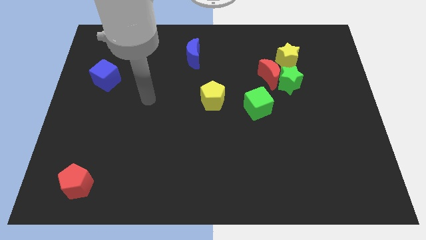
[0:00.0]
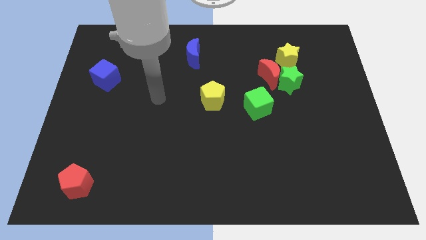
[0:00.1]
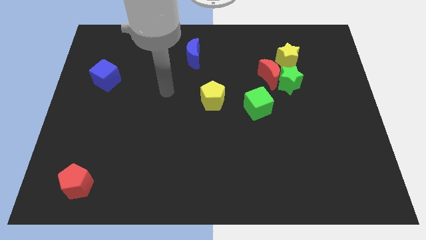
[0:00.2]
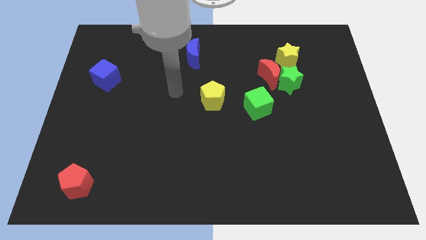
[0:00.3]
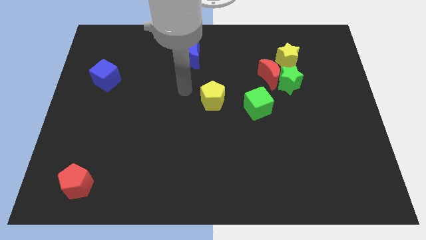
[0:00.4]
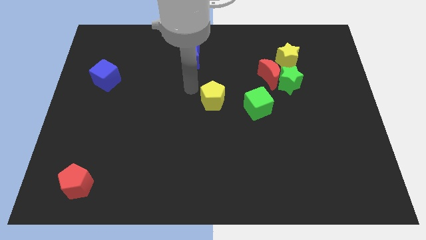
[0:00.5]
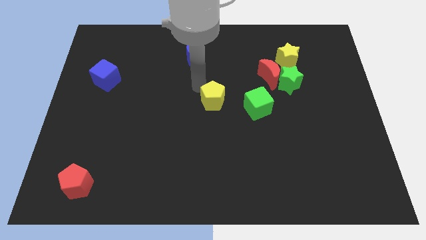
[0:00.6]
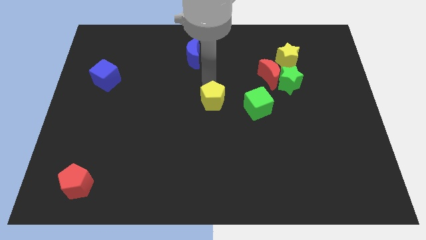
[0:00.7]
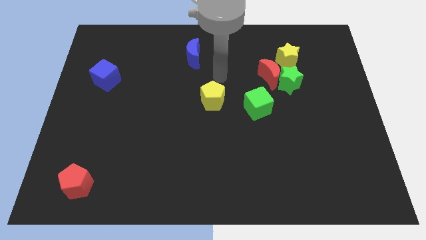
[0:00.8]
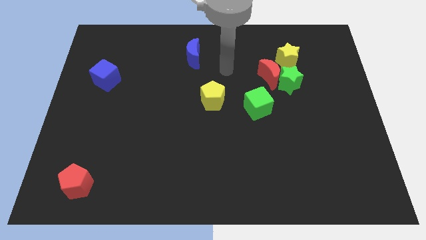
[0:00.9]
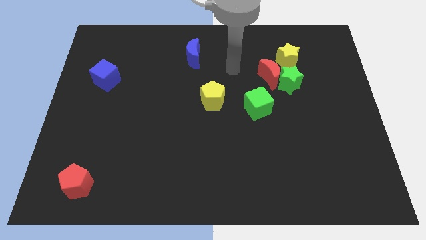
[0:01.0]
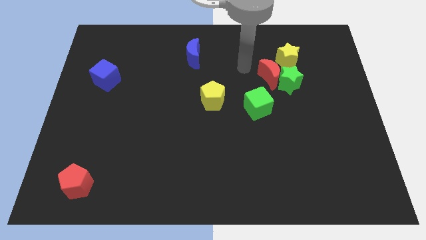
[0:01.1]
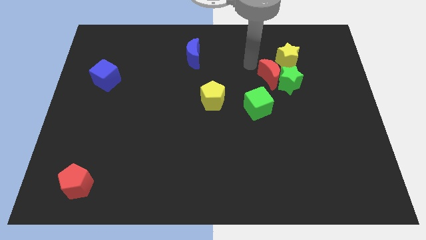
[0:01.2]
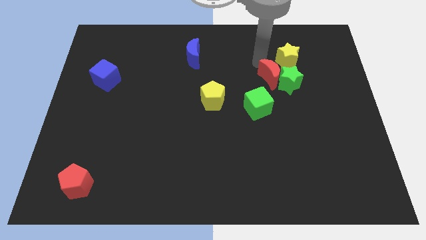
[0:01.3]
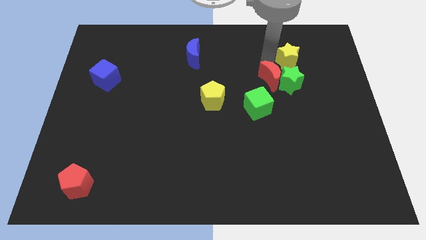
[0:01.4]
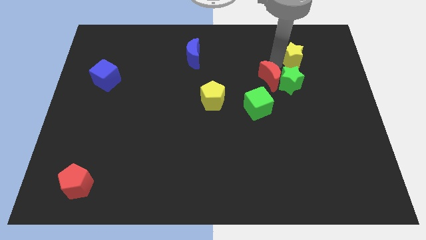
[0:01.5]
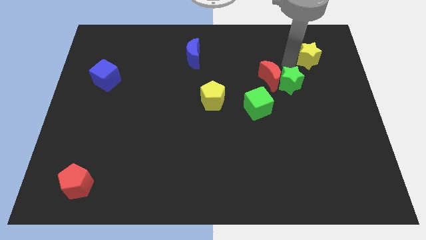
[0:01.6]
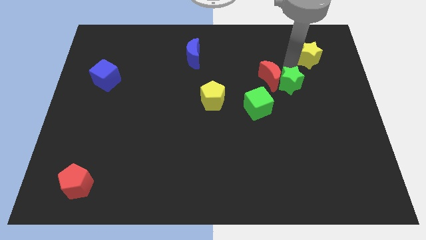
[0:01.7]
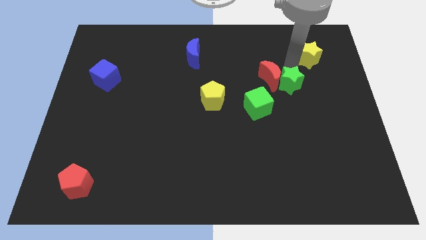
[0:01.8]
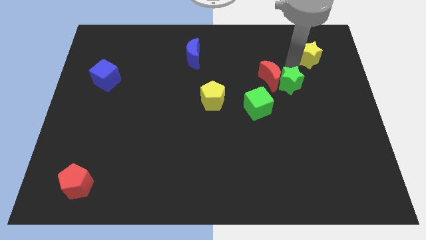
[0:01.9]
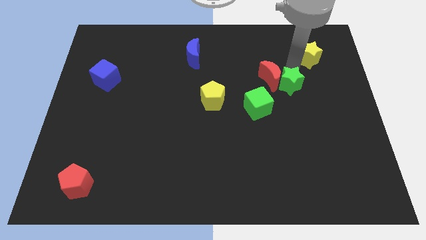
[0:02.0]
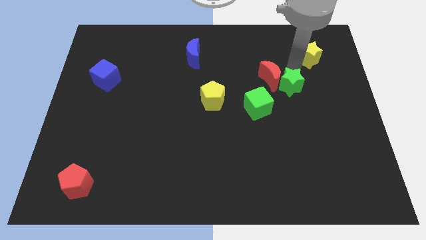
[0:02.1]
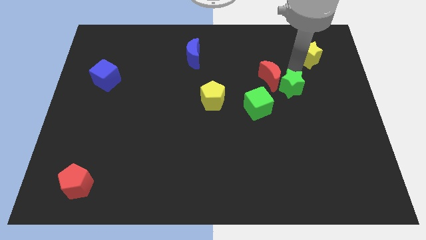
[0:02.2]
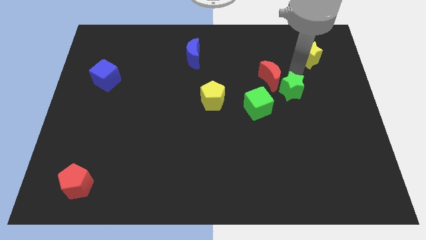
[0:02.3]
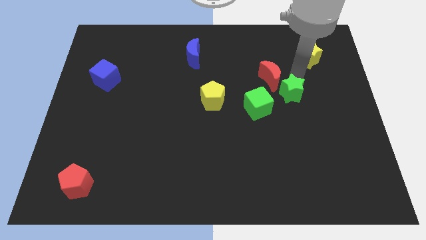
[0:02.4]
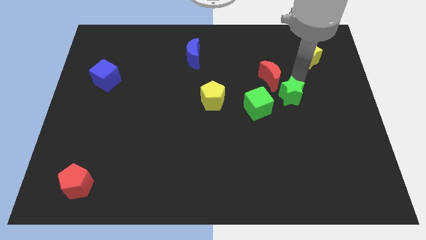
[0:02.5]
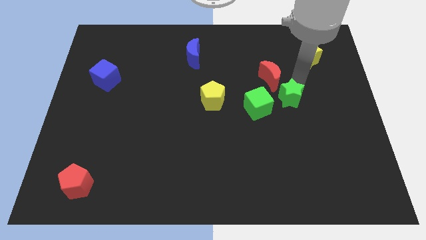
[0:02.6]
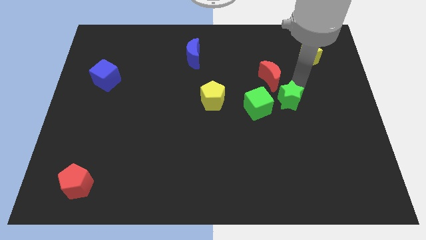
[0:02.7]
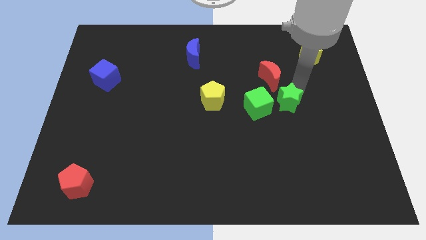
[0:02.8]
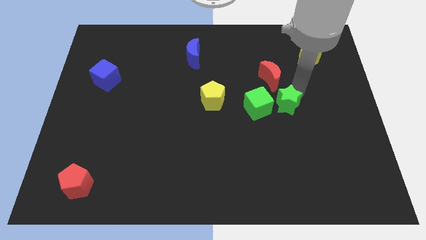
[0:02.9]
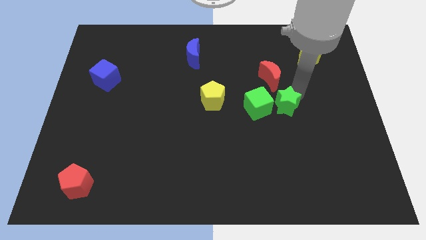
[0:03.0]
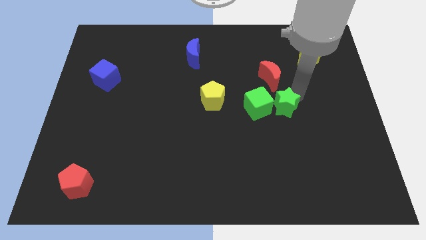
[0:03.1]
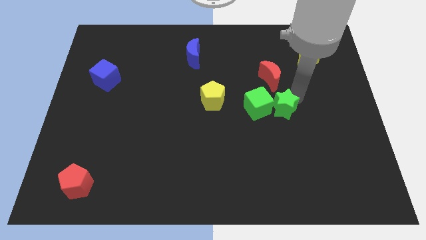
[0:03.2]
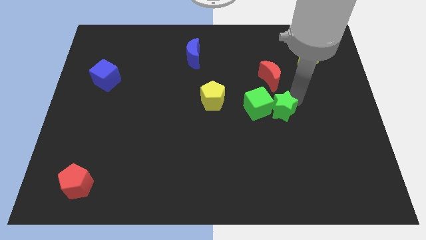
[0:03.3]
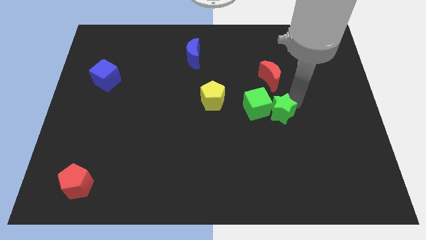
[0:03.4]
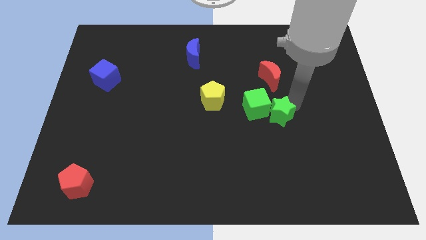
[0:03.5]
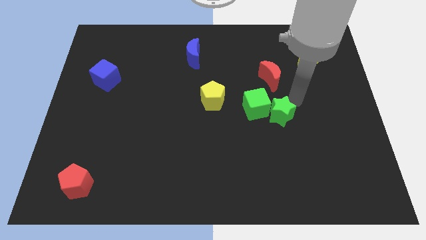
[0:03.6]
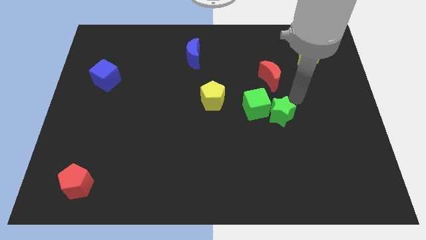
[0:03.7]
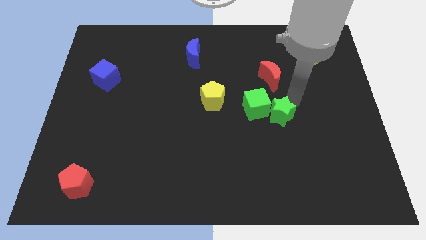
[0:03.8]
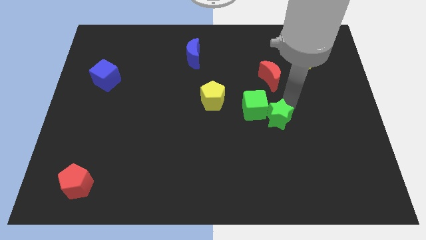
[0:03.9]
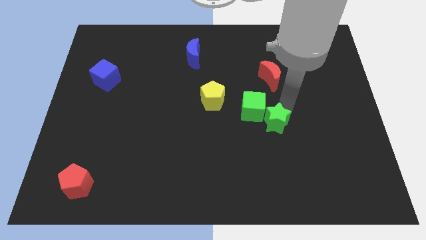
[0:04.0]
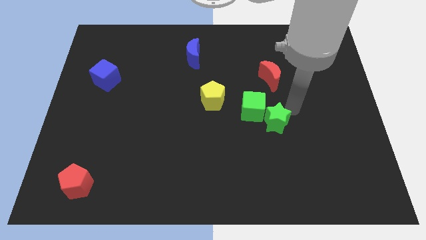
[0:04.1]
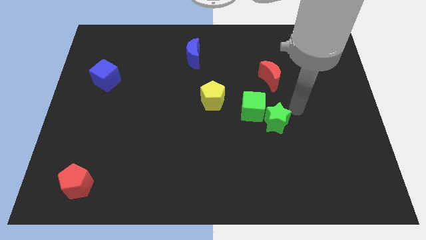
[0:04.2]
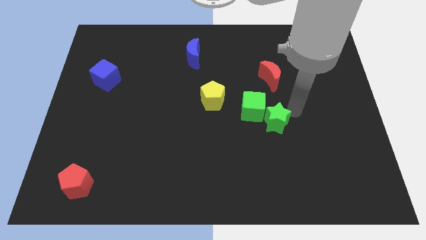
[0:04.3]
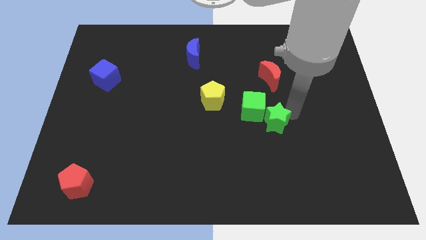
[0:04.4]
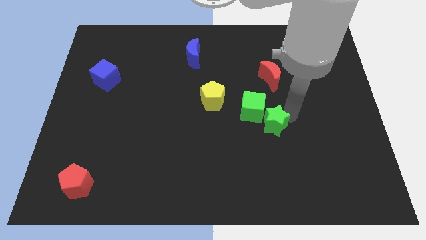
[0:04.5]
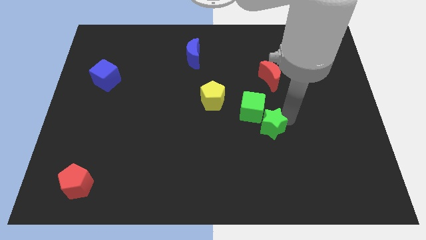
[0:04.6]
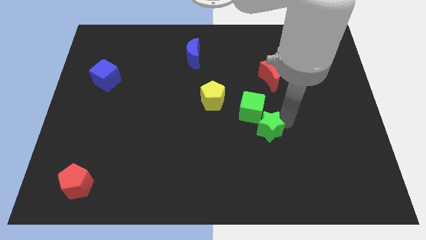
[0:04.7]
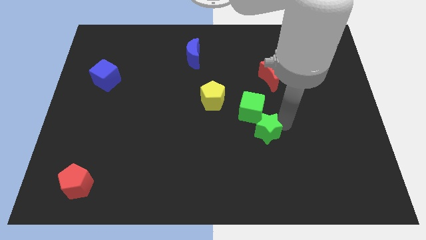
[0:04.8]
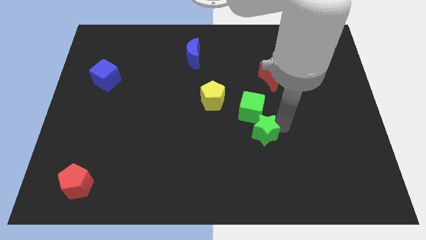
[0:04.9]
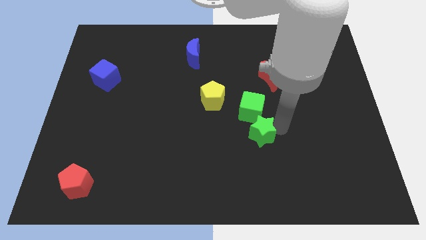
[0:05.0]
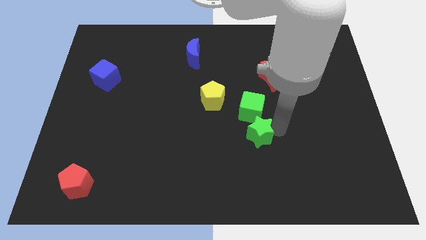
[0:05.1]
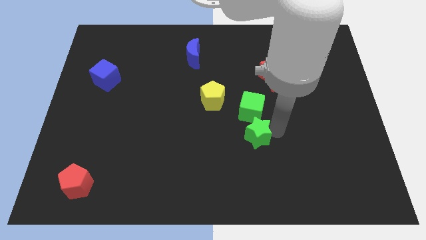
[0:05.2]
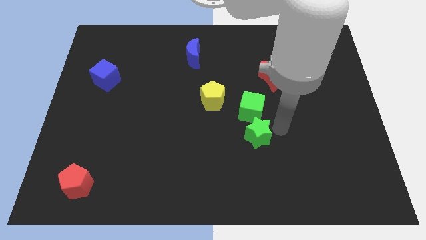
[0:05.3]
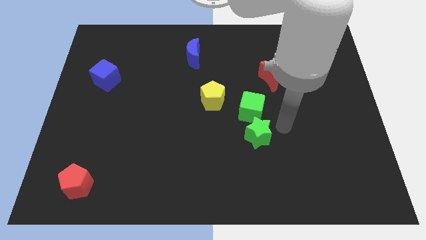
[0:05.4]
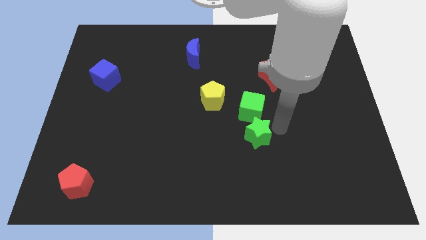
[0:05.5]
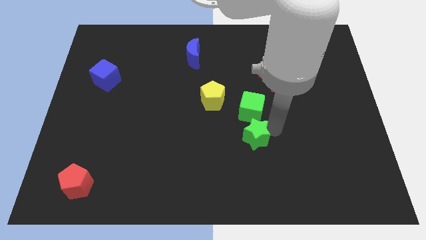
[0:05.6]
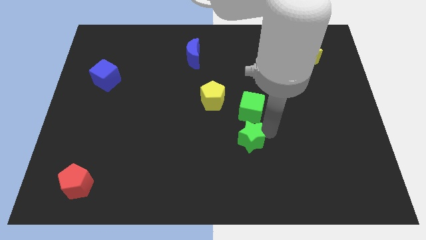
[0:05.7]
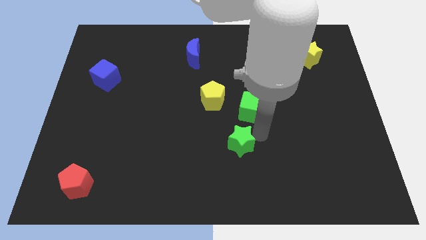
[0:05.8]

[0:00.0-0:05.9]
push the green star down and left

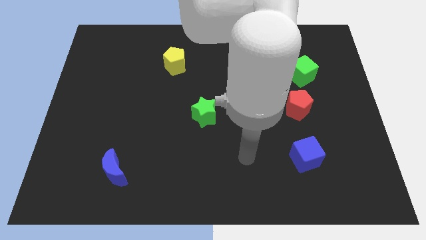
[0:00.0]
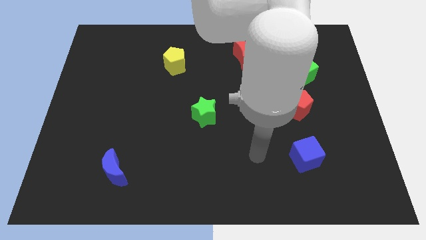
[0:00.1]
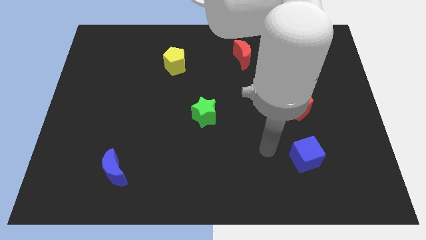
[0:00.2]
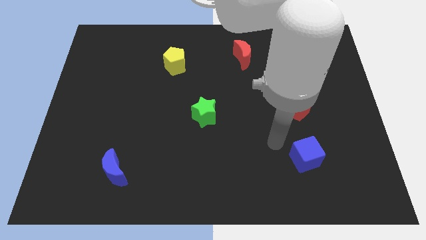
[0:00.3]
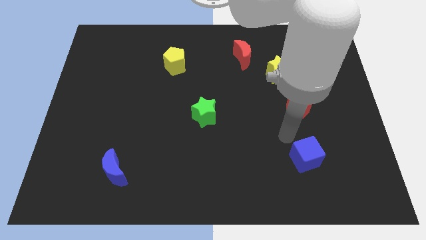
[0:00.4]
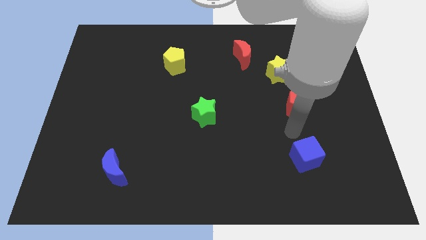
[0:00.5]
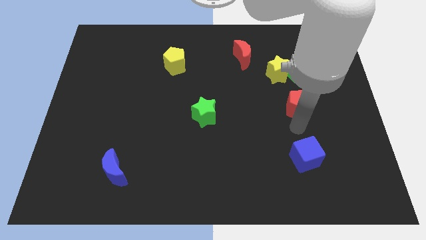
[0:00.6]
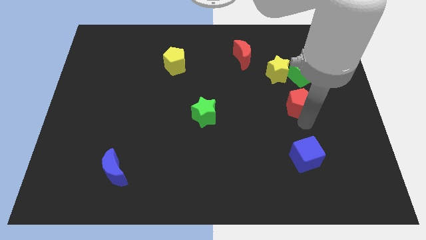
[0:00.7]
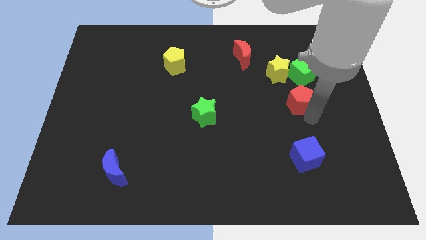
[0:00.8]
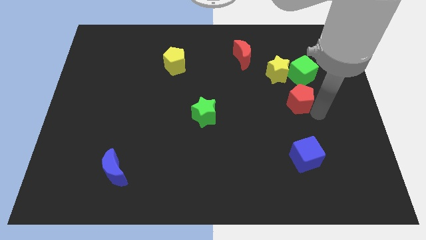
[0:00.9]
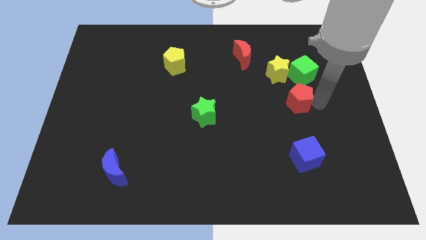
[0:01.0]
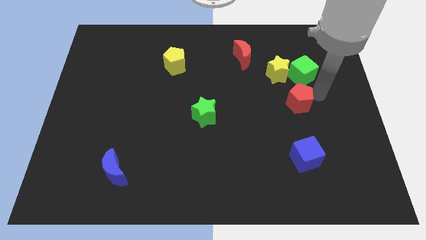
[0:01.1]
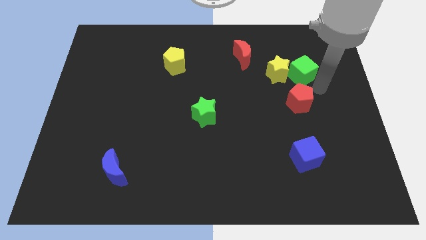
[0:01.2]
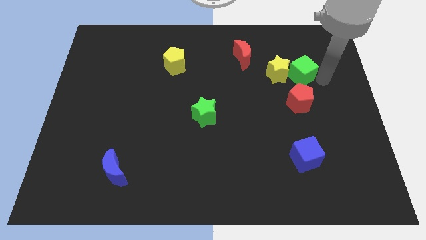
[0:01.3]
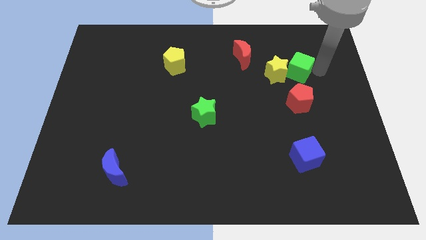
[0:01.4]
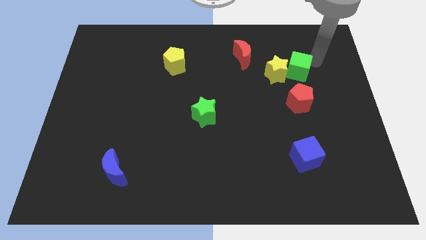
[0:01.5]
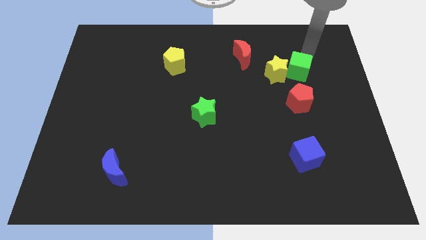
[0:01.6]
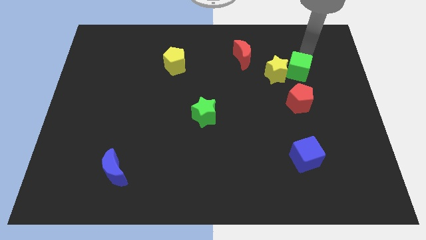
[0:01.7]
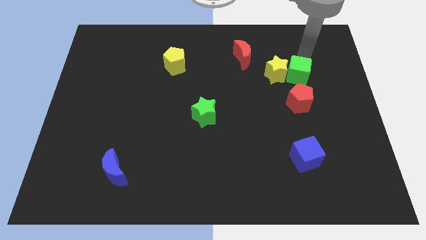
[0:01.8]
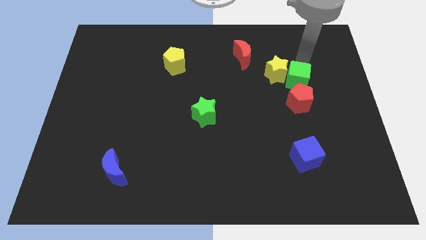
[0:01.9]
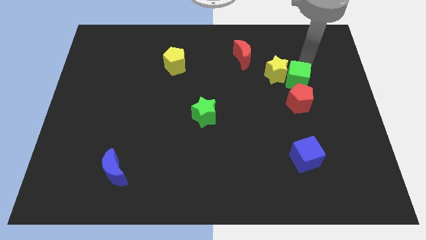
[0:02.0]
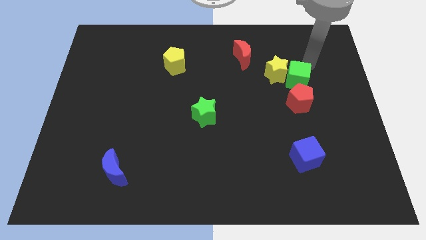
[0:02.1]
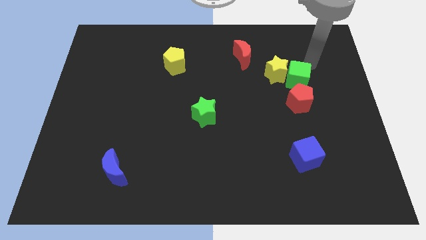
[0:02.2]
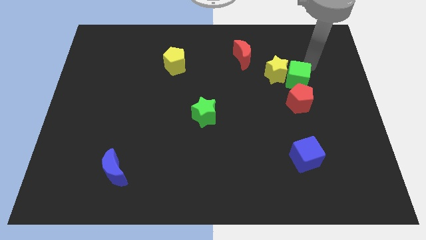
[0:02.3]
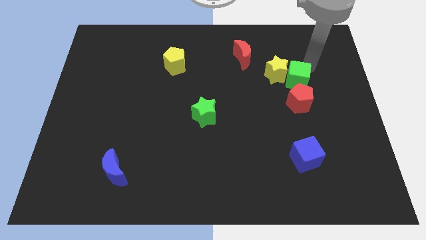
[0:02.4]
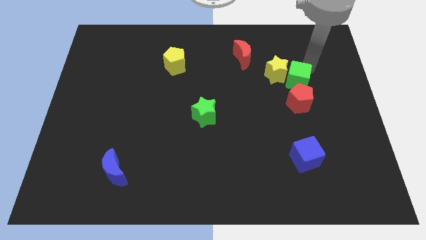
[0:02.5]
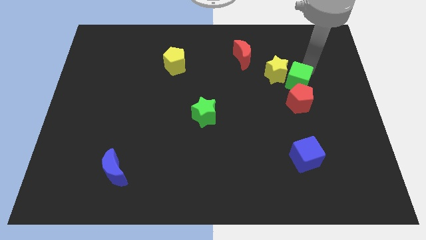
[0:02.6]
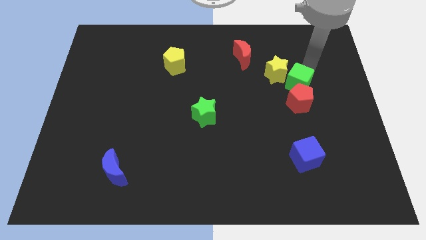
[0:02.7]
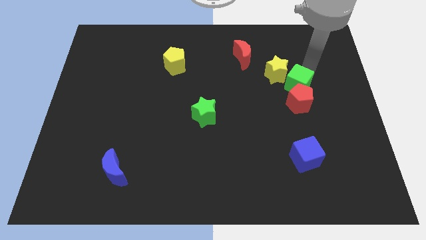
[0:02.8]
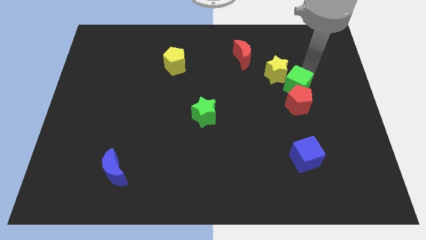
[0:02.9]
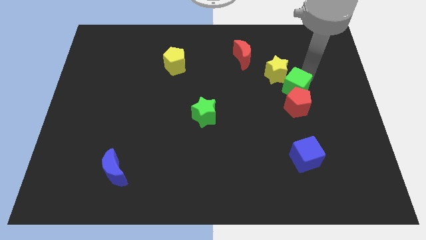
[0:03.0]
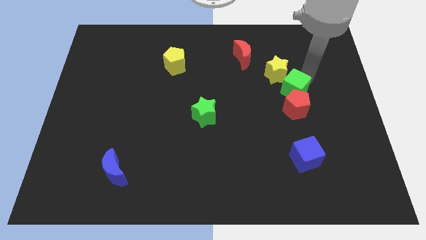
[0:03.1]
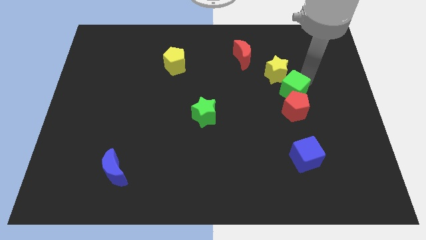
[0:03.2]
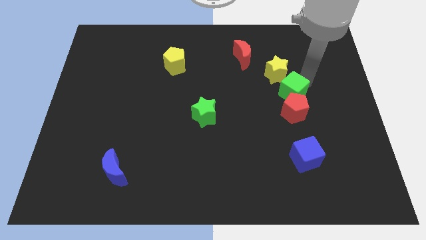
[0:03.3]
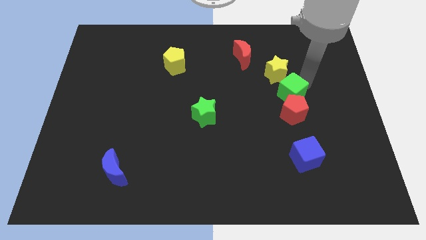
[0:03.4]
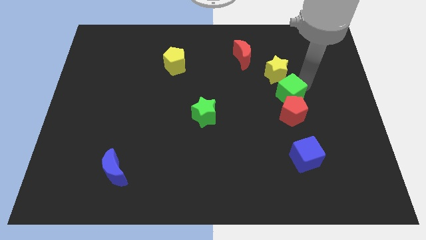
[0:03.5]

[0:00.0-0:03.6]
slightly slide the green cube down and left diagonally
